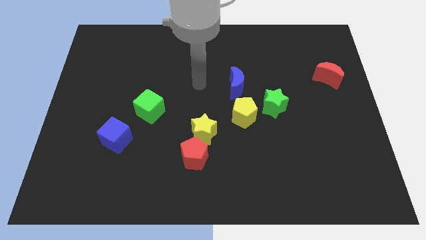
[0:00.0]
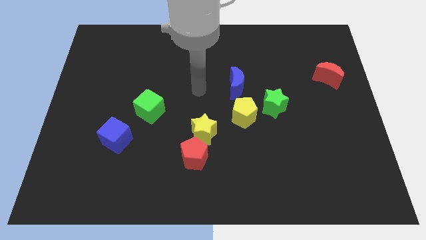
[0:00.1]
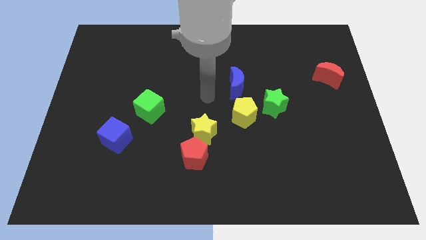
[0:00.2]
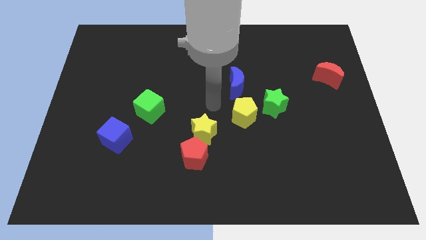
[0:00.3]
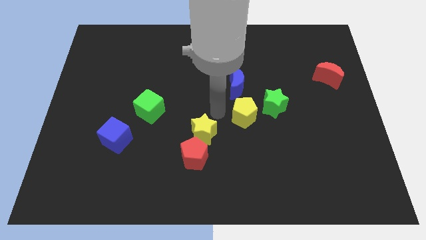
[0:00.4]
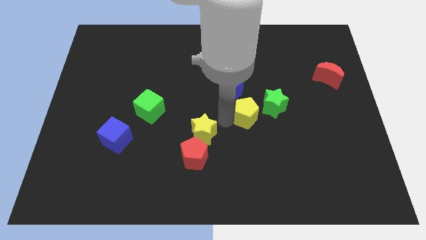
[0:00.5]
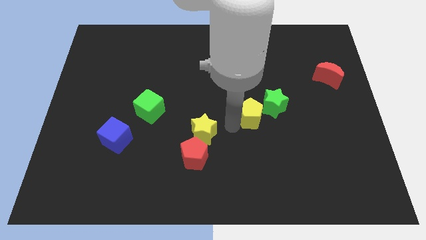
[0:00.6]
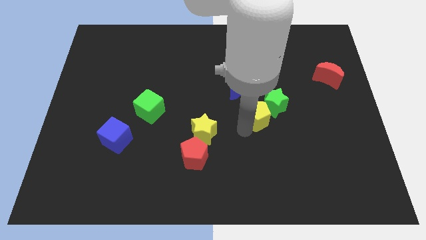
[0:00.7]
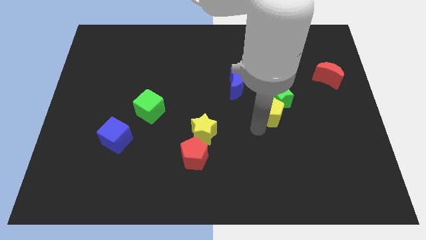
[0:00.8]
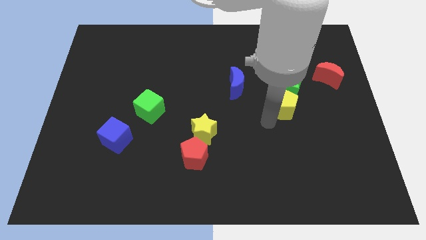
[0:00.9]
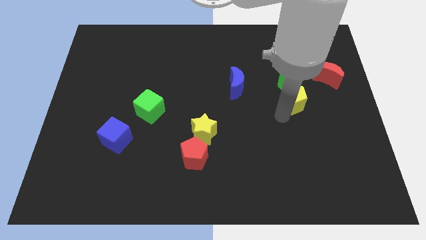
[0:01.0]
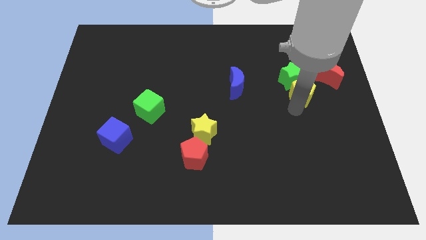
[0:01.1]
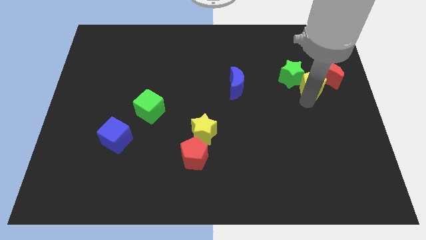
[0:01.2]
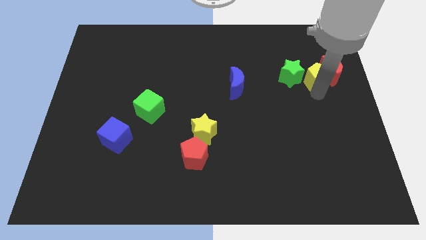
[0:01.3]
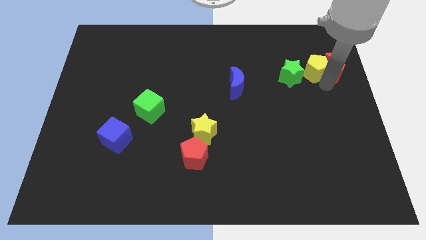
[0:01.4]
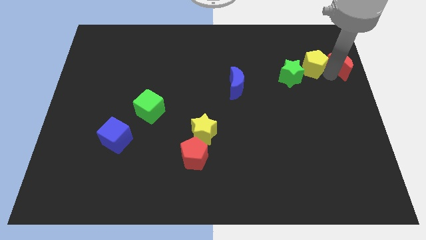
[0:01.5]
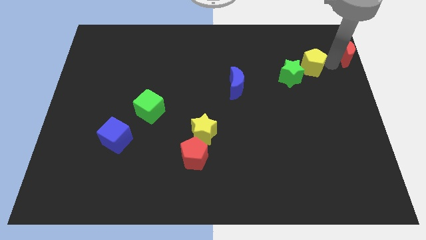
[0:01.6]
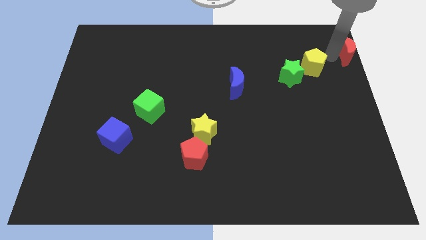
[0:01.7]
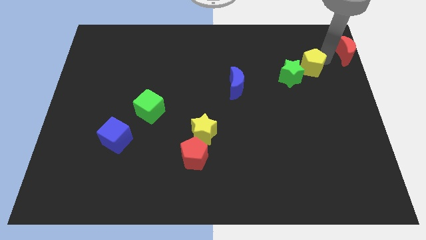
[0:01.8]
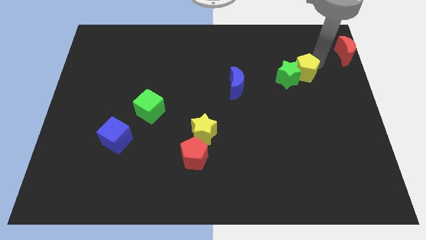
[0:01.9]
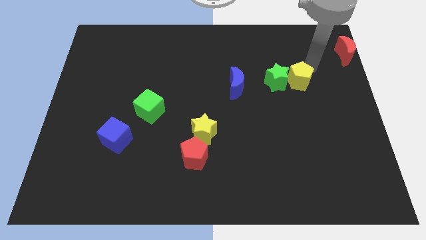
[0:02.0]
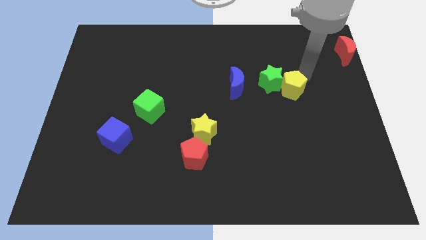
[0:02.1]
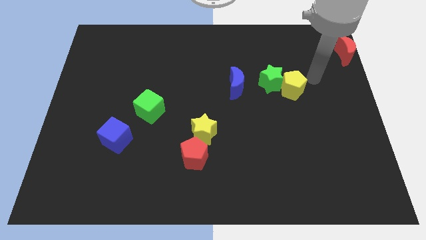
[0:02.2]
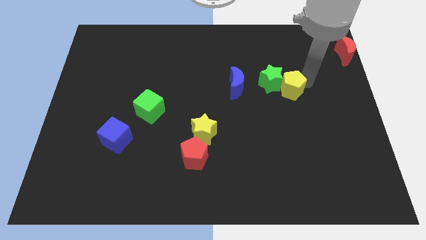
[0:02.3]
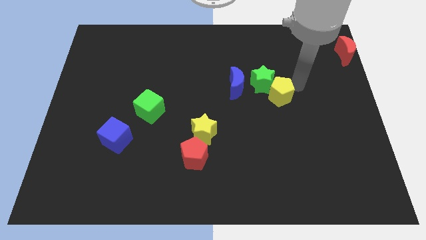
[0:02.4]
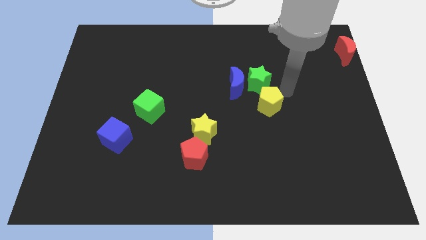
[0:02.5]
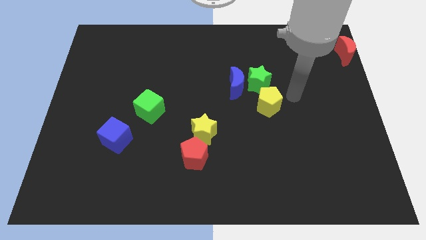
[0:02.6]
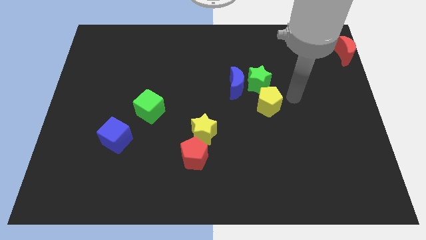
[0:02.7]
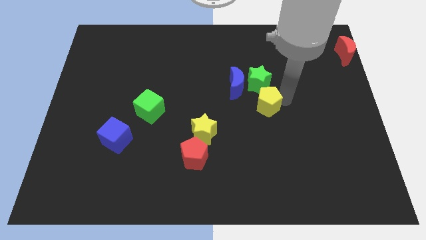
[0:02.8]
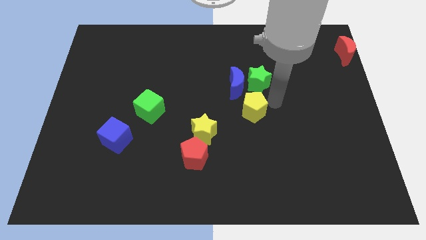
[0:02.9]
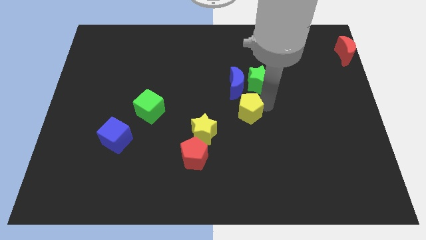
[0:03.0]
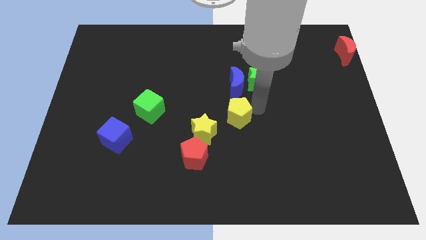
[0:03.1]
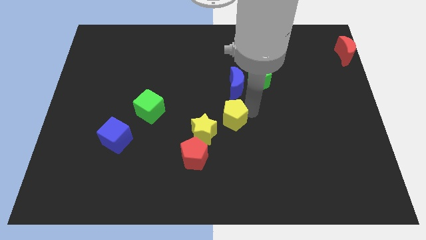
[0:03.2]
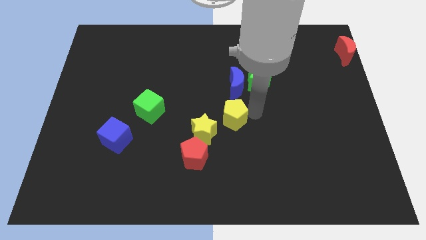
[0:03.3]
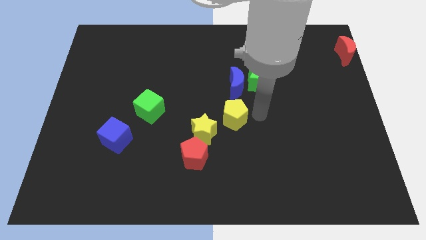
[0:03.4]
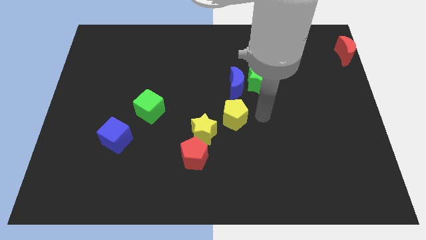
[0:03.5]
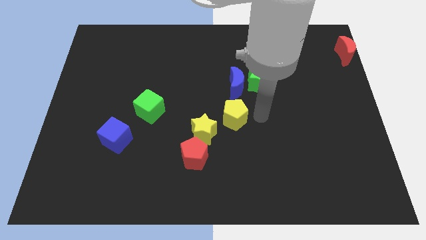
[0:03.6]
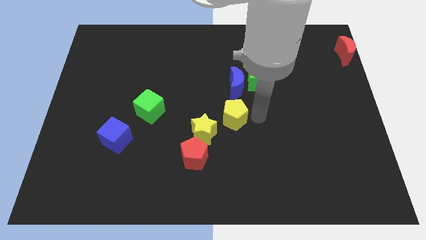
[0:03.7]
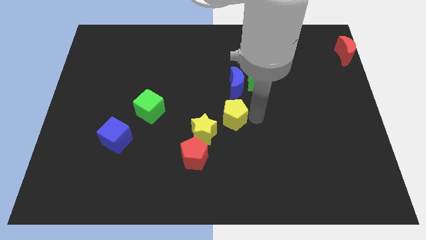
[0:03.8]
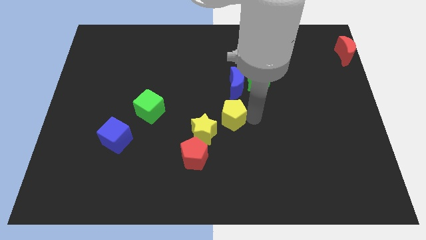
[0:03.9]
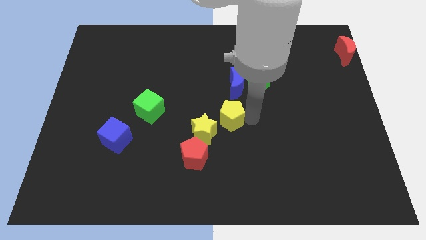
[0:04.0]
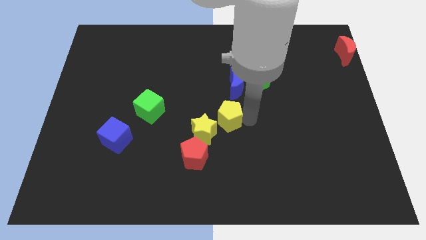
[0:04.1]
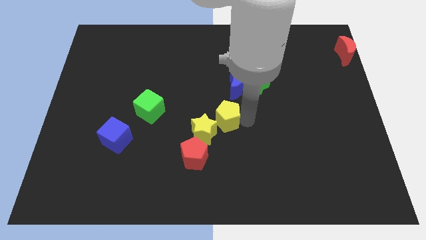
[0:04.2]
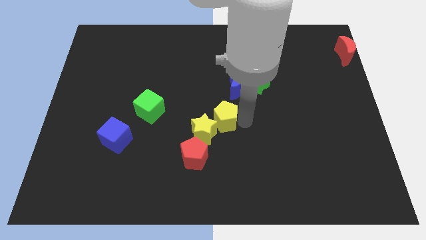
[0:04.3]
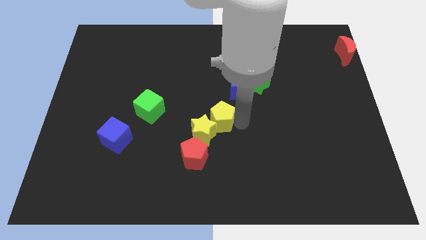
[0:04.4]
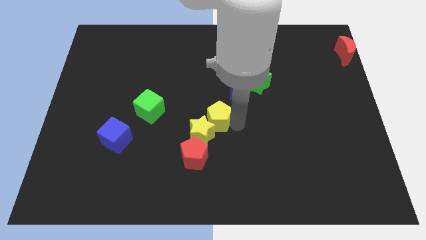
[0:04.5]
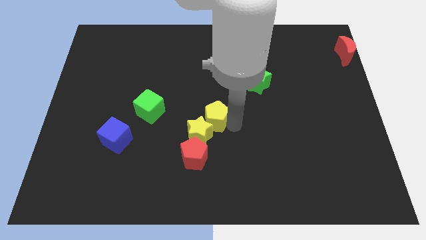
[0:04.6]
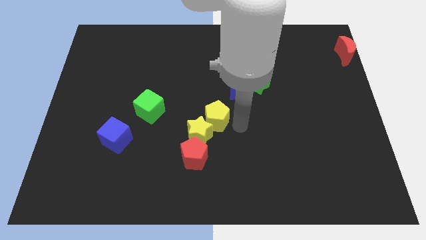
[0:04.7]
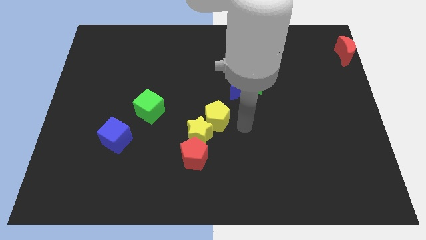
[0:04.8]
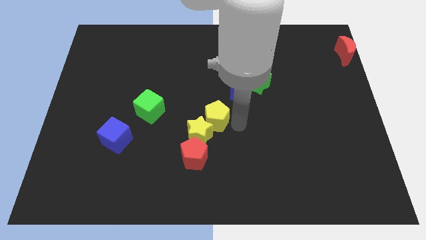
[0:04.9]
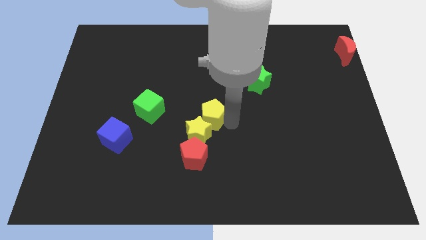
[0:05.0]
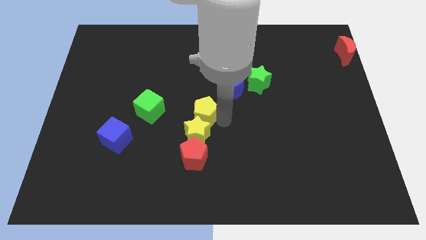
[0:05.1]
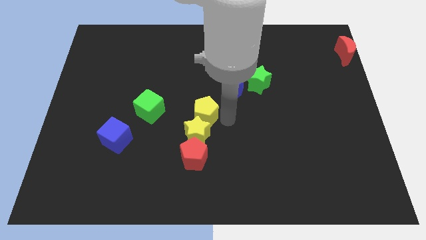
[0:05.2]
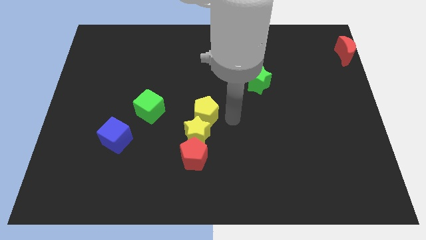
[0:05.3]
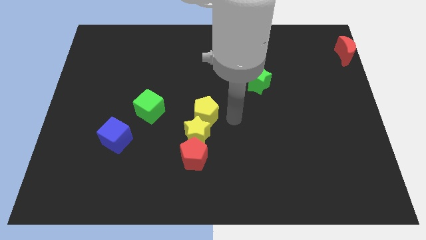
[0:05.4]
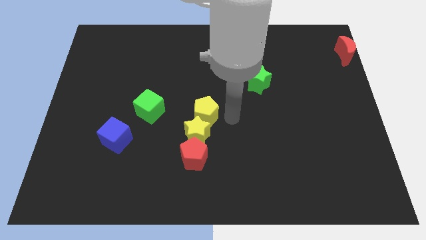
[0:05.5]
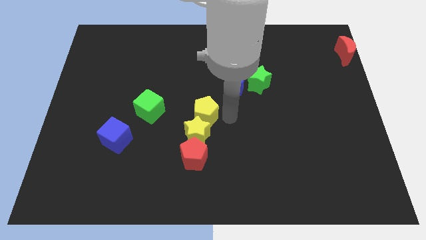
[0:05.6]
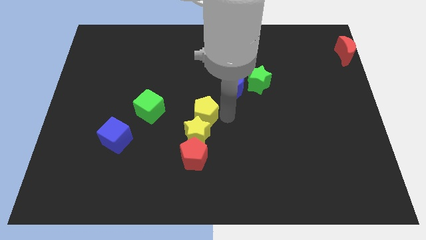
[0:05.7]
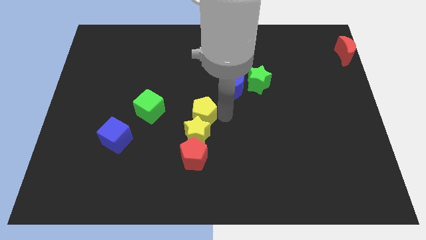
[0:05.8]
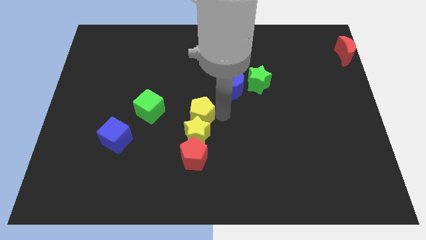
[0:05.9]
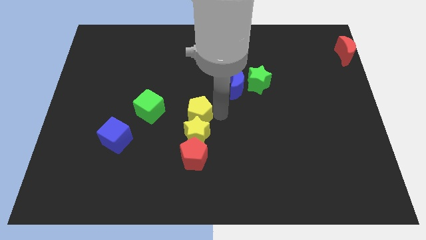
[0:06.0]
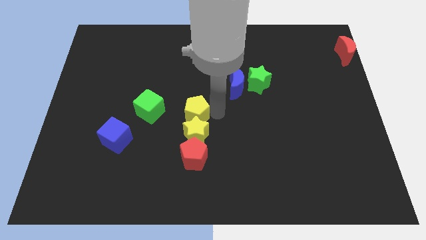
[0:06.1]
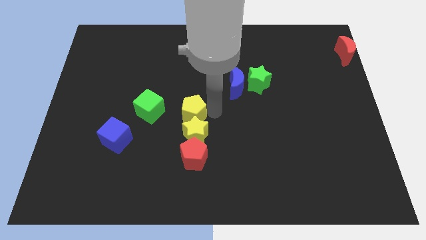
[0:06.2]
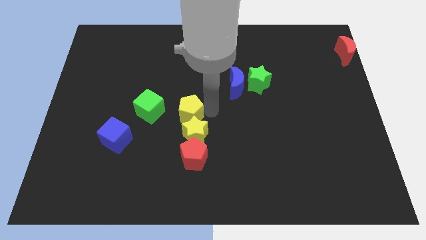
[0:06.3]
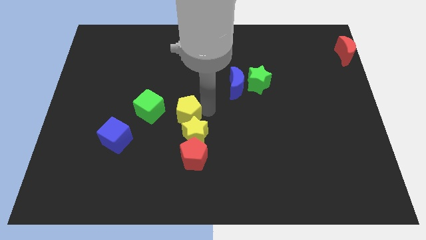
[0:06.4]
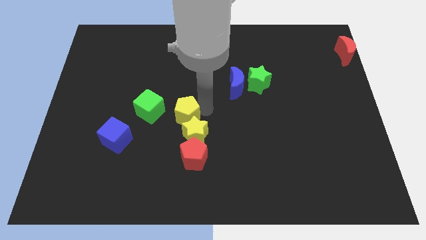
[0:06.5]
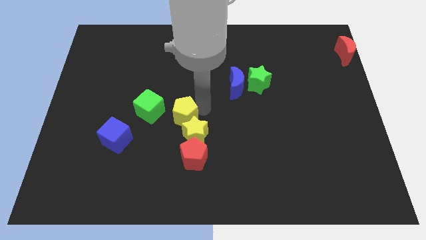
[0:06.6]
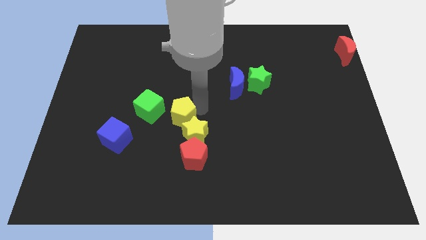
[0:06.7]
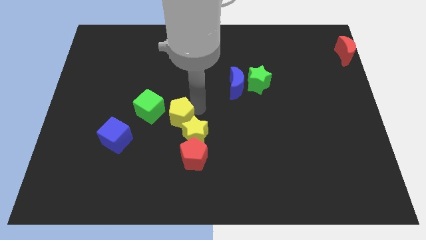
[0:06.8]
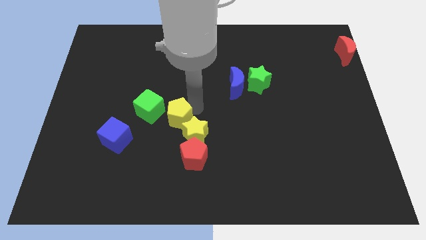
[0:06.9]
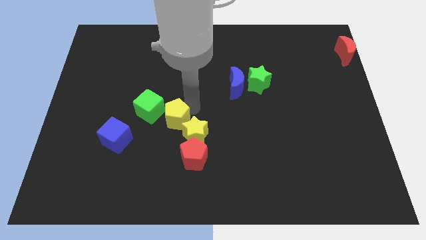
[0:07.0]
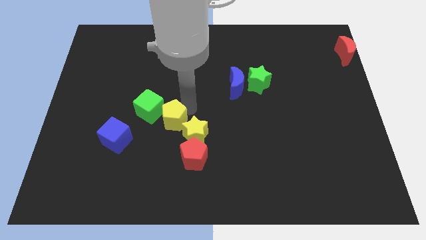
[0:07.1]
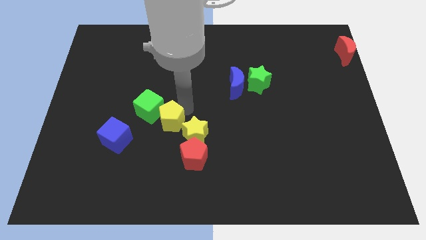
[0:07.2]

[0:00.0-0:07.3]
push the yellow pentagon next to the green cube
